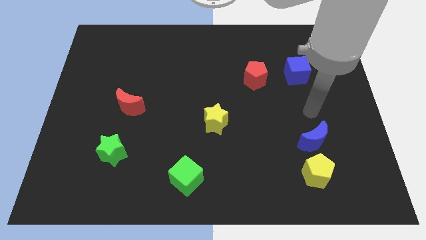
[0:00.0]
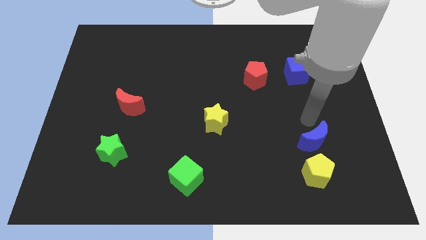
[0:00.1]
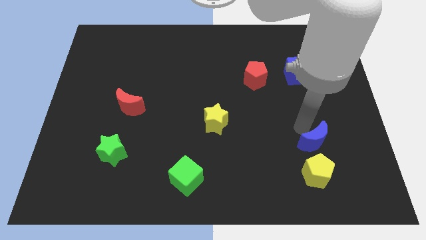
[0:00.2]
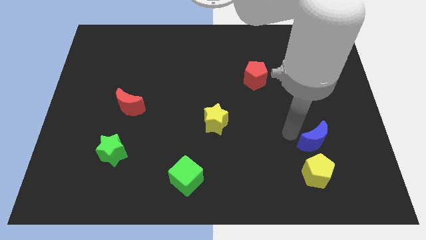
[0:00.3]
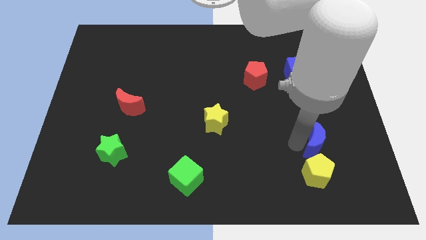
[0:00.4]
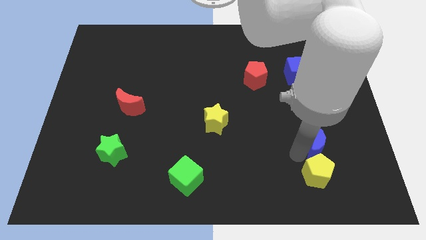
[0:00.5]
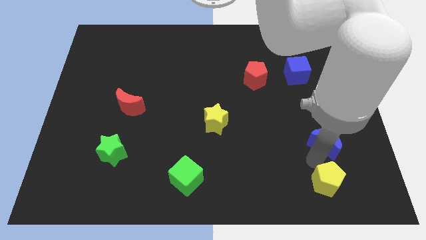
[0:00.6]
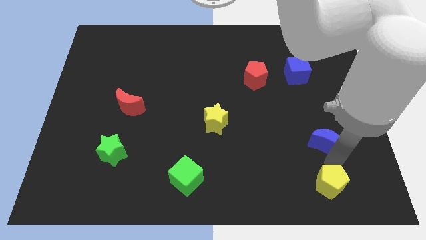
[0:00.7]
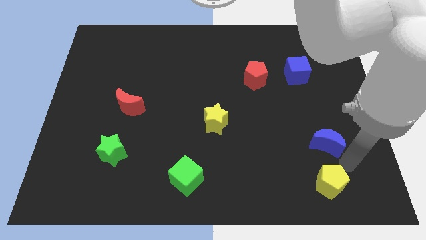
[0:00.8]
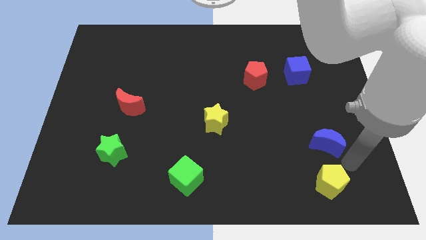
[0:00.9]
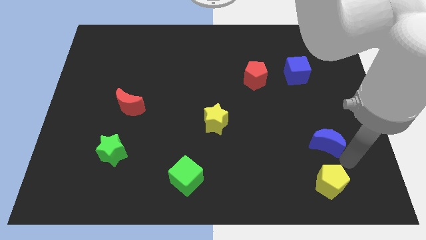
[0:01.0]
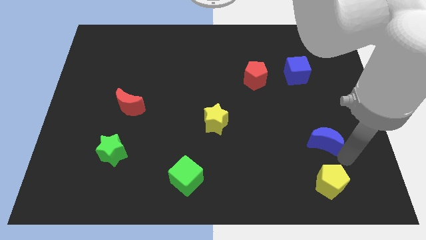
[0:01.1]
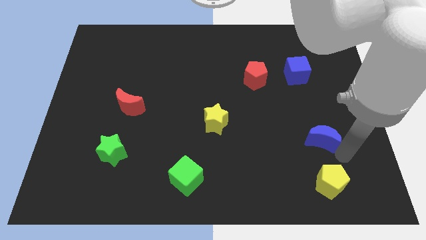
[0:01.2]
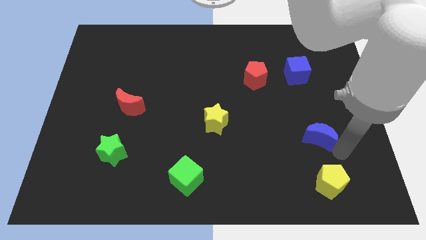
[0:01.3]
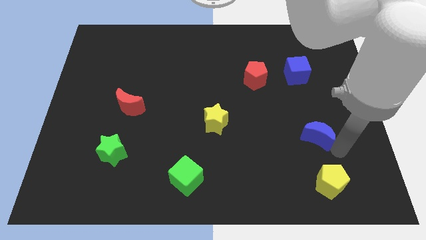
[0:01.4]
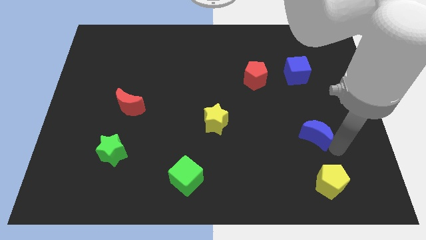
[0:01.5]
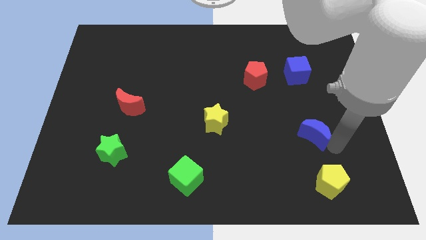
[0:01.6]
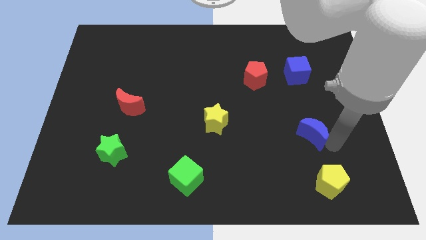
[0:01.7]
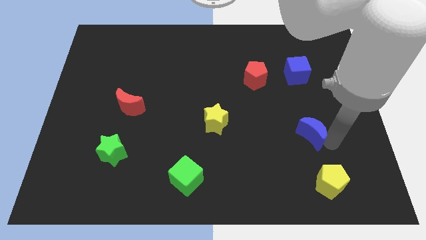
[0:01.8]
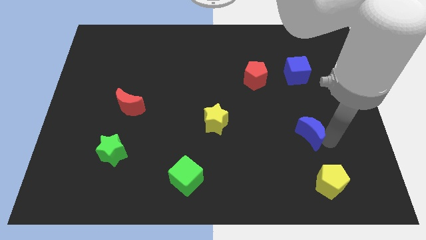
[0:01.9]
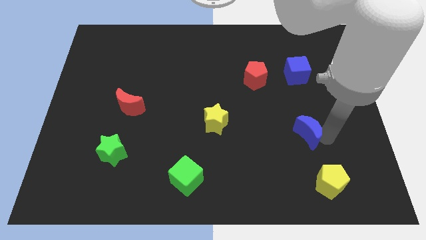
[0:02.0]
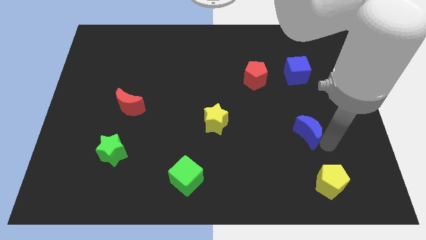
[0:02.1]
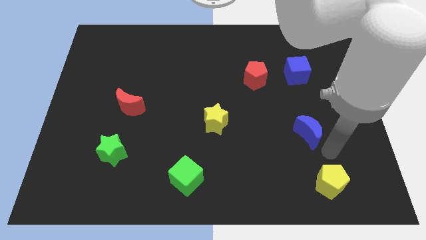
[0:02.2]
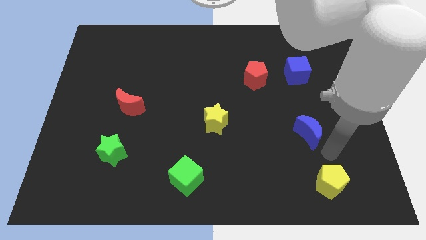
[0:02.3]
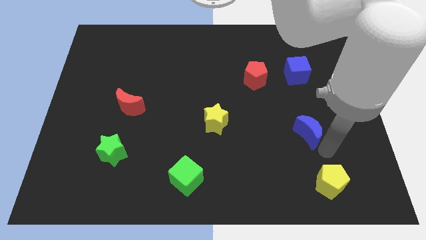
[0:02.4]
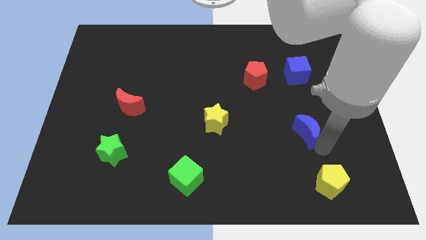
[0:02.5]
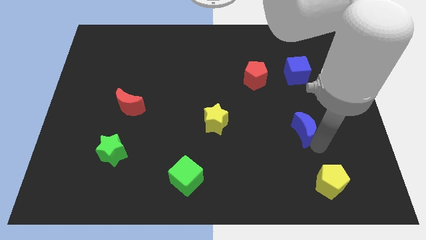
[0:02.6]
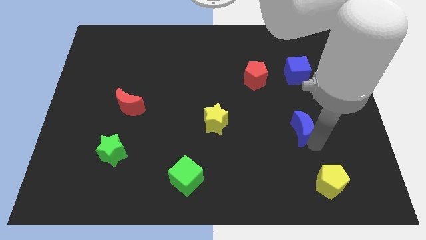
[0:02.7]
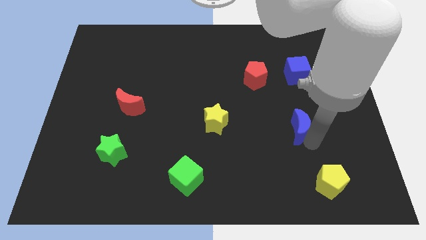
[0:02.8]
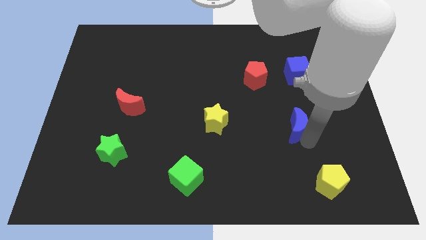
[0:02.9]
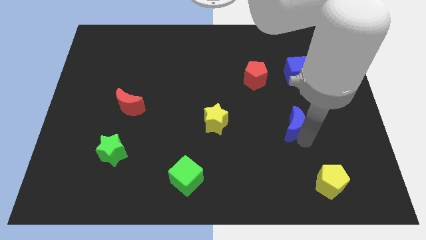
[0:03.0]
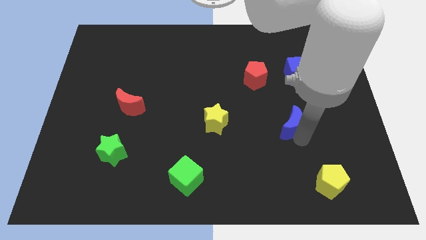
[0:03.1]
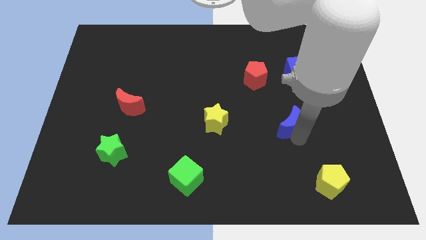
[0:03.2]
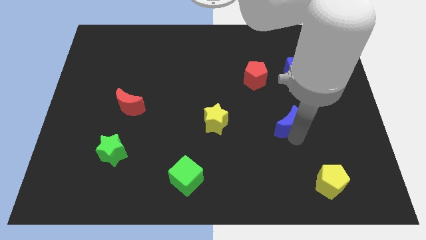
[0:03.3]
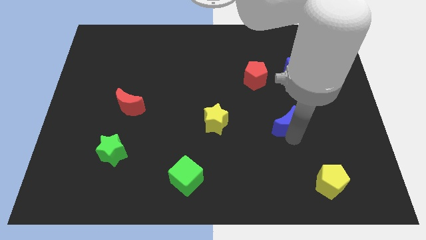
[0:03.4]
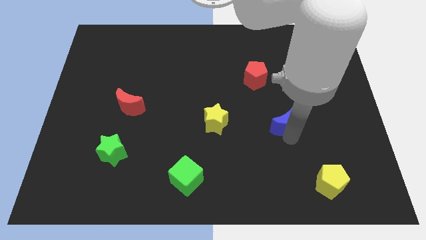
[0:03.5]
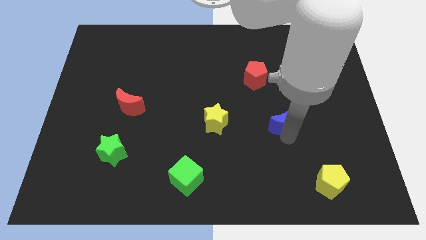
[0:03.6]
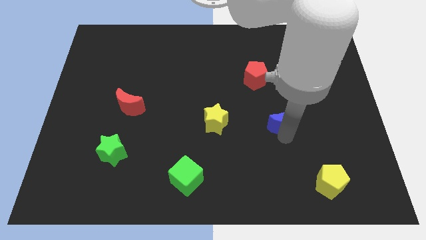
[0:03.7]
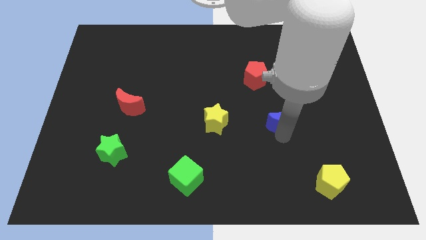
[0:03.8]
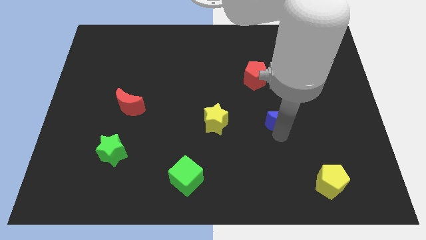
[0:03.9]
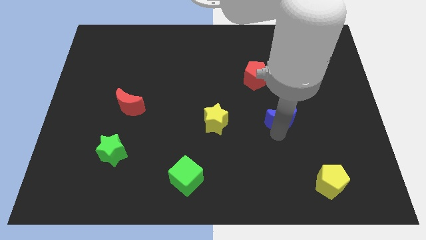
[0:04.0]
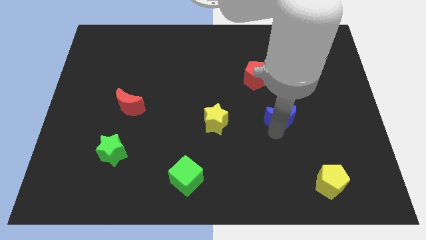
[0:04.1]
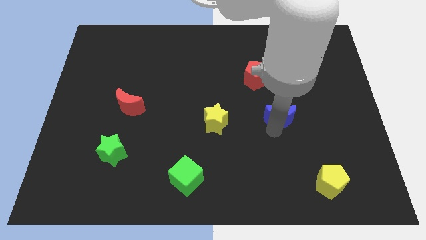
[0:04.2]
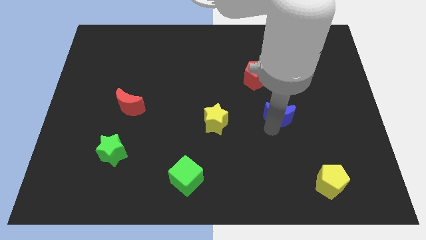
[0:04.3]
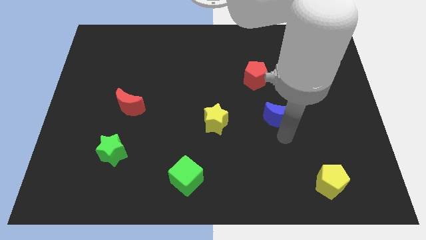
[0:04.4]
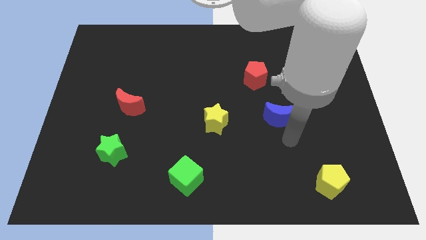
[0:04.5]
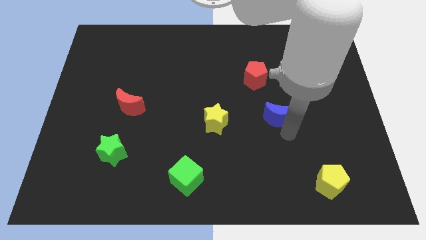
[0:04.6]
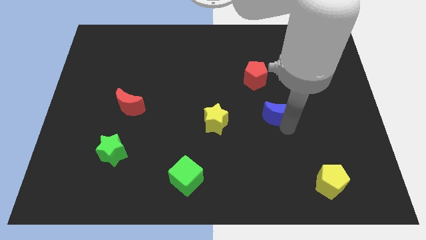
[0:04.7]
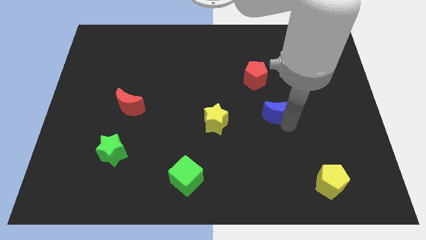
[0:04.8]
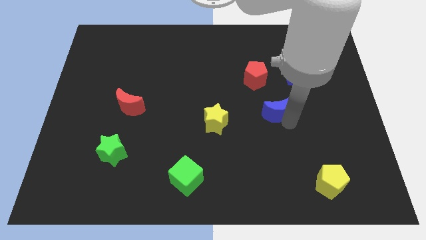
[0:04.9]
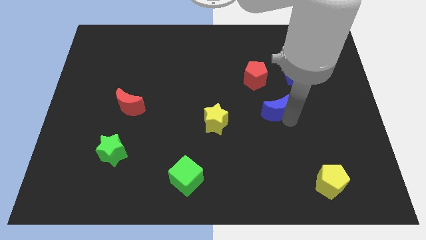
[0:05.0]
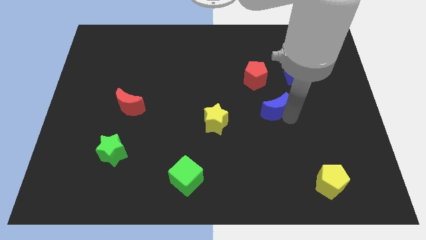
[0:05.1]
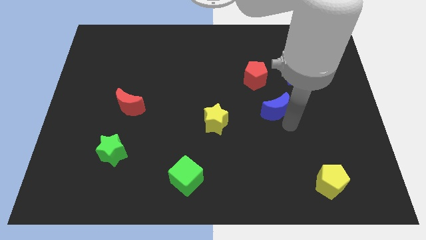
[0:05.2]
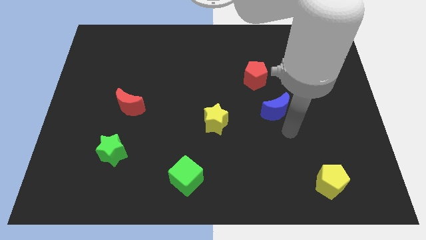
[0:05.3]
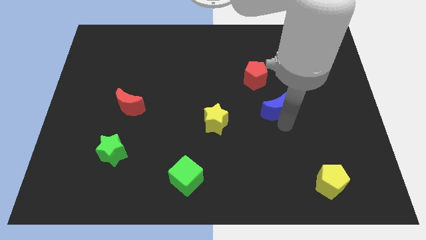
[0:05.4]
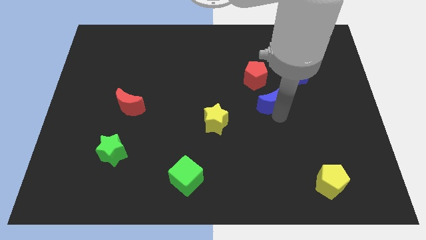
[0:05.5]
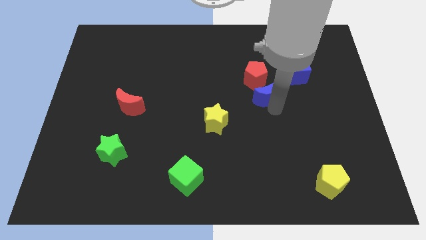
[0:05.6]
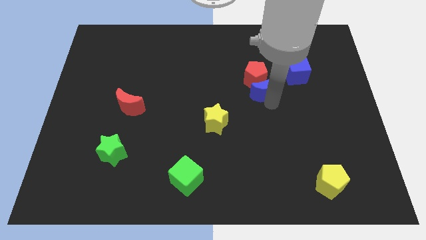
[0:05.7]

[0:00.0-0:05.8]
push the blue moon to the red pentagon

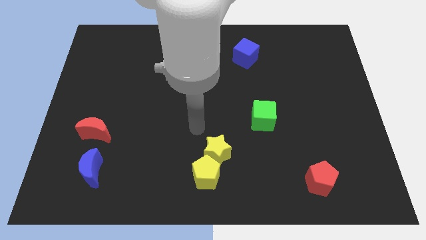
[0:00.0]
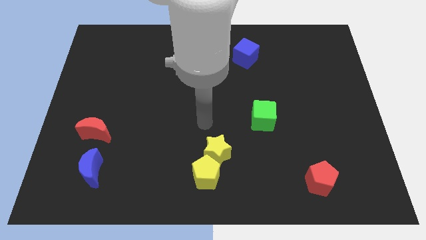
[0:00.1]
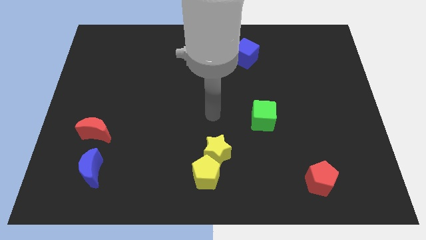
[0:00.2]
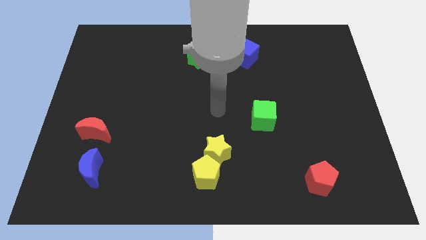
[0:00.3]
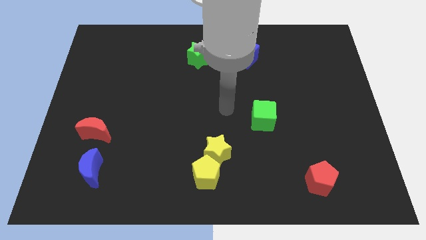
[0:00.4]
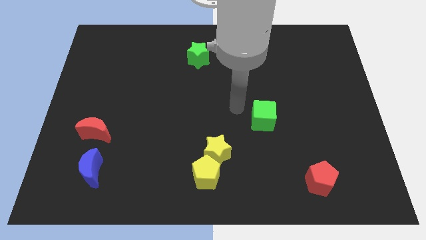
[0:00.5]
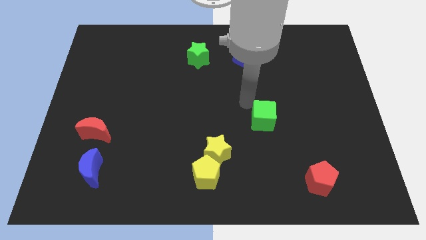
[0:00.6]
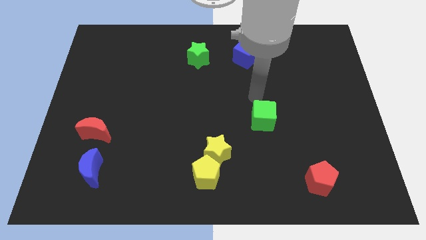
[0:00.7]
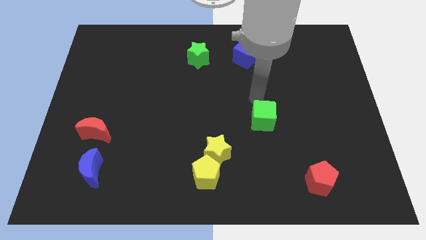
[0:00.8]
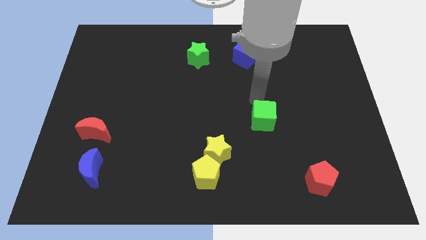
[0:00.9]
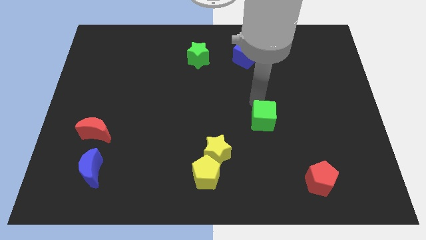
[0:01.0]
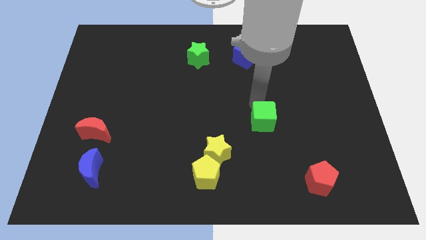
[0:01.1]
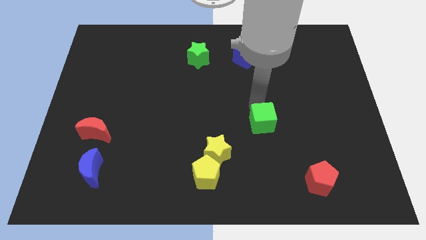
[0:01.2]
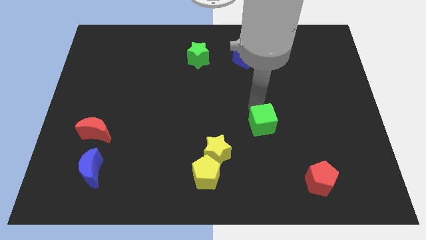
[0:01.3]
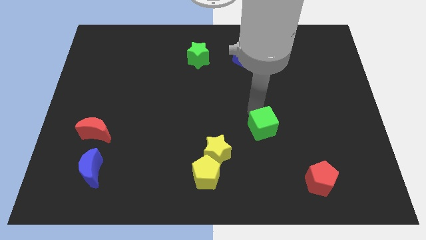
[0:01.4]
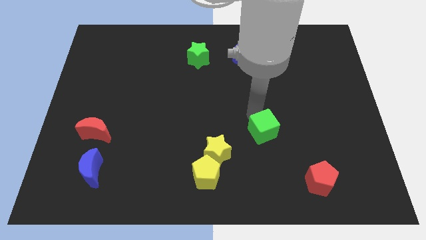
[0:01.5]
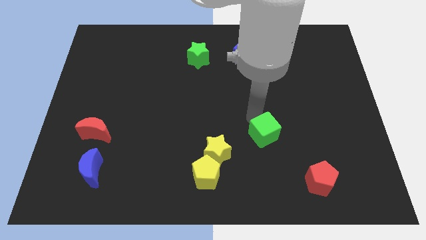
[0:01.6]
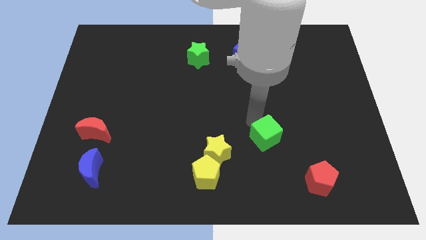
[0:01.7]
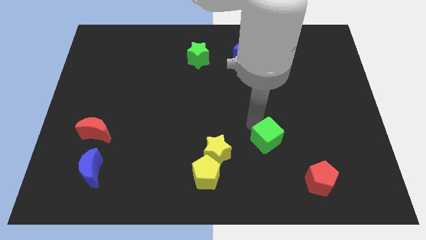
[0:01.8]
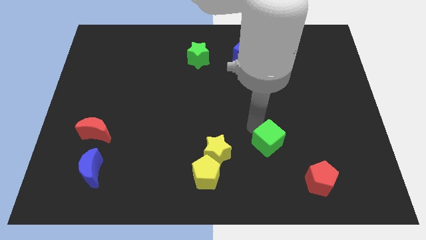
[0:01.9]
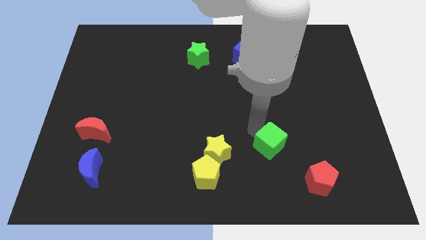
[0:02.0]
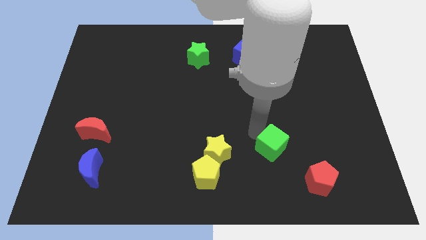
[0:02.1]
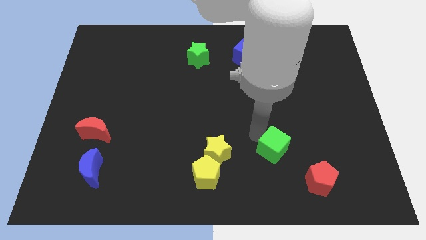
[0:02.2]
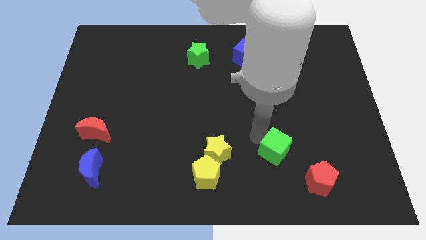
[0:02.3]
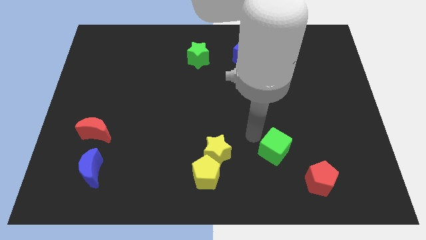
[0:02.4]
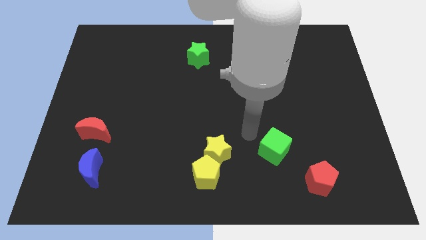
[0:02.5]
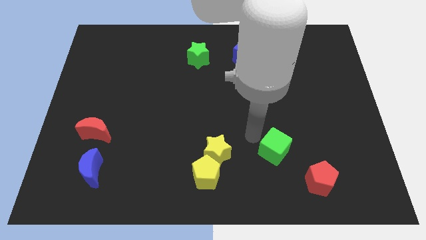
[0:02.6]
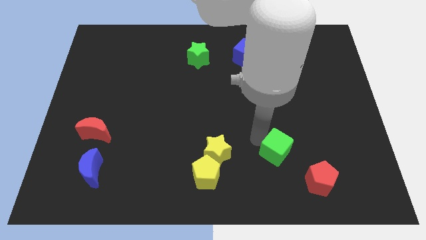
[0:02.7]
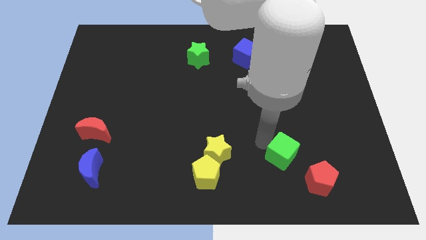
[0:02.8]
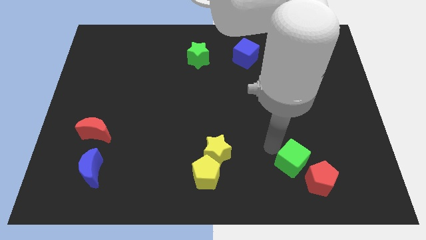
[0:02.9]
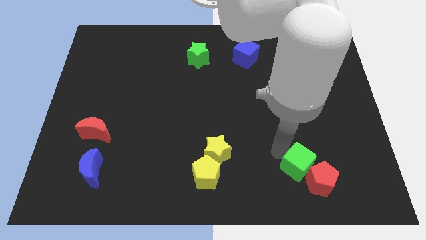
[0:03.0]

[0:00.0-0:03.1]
push the green cube to the red pentagon
